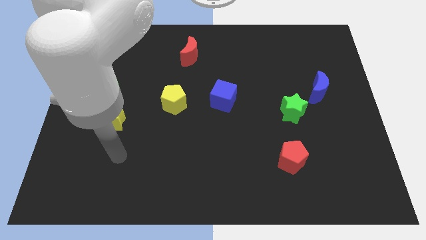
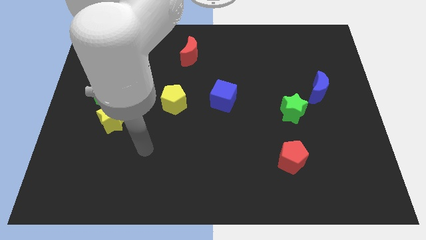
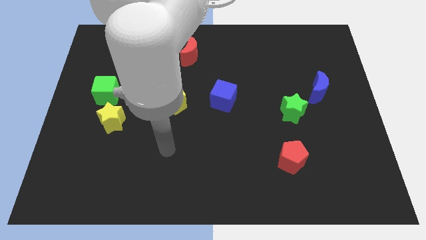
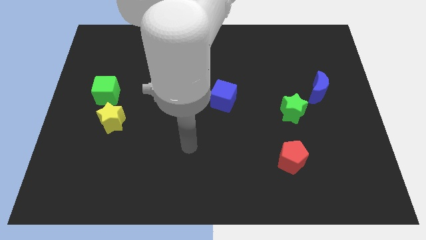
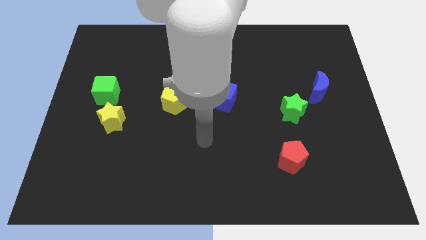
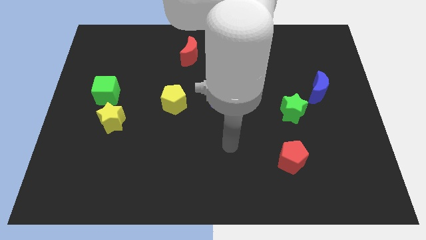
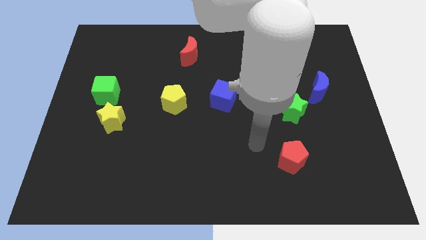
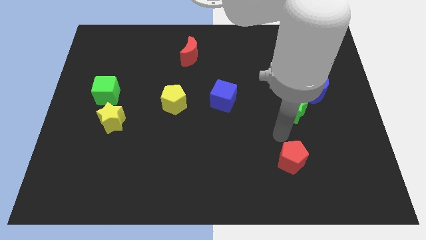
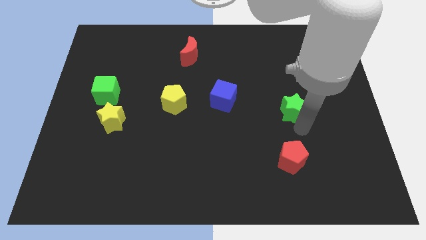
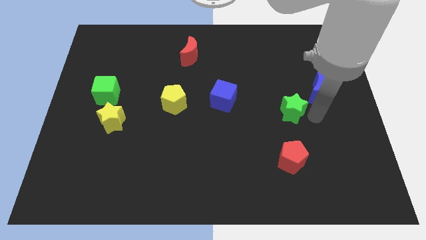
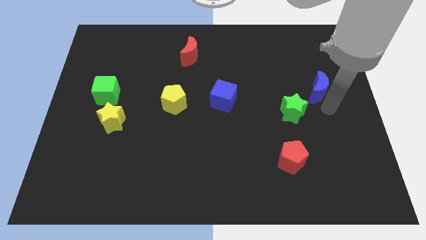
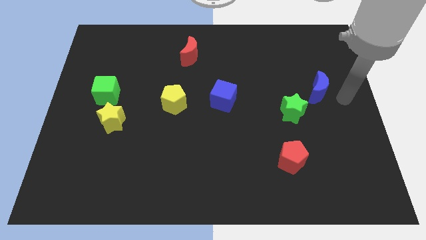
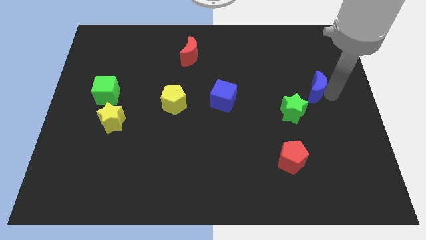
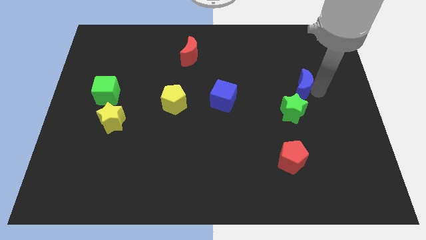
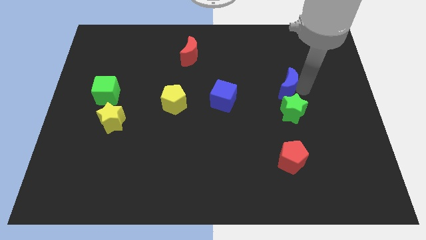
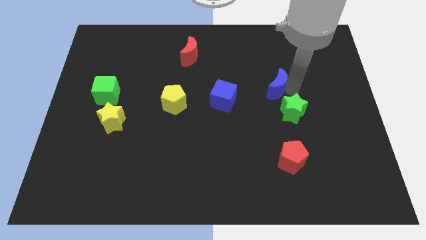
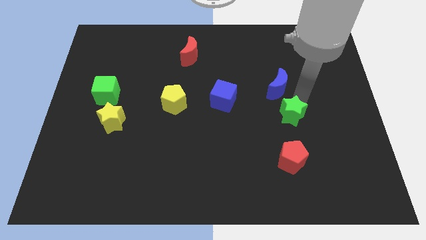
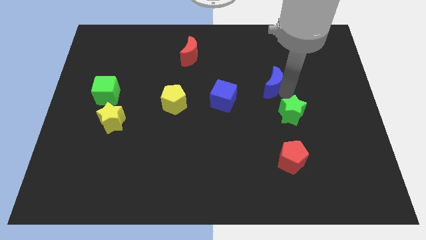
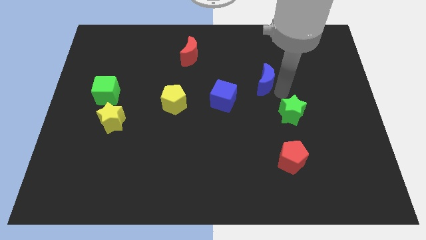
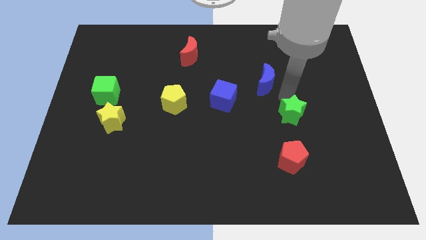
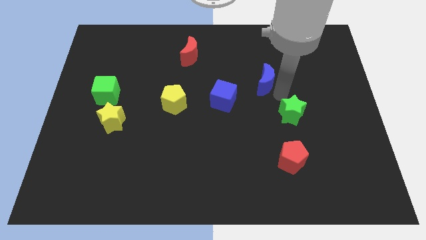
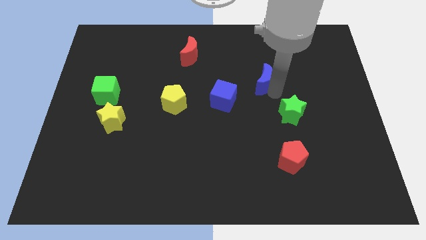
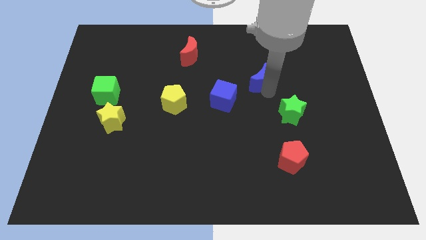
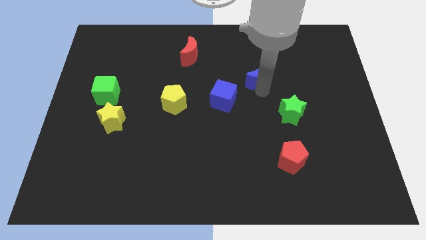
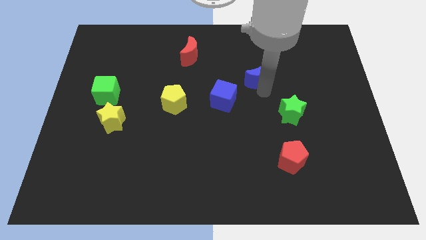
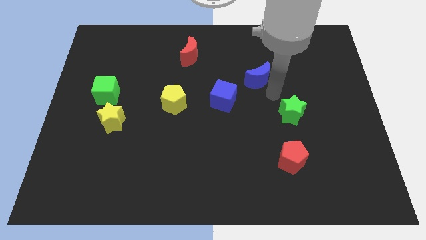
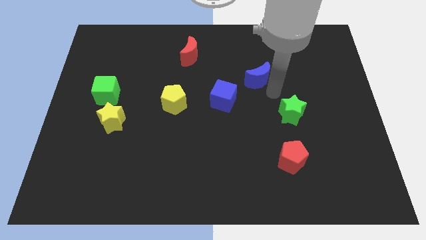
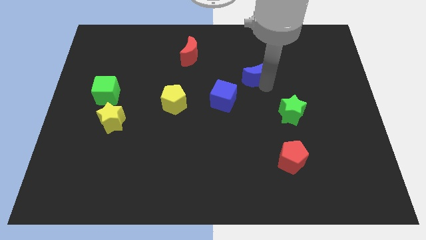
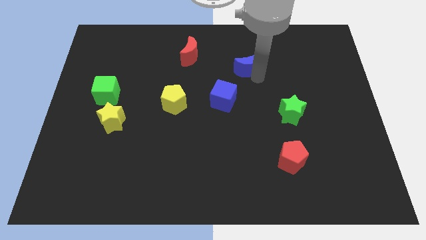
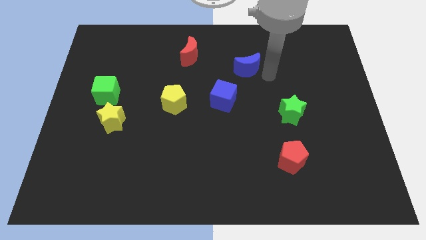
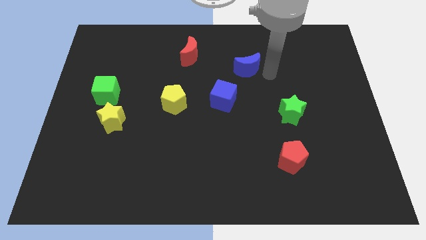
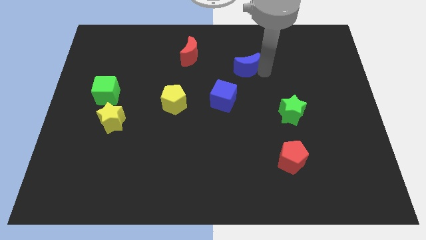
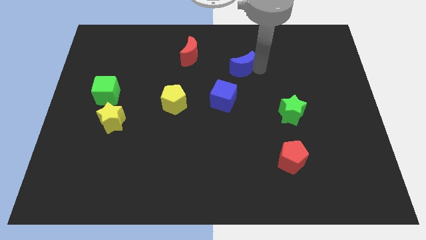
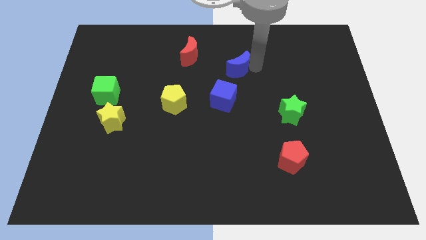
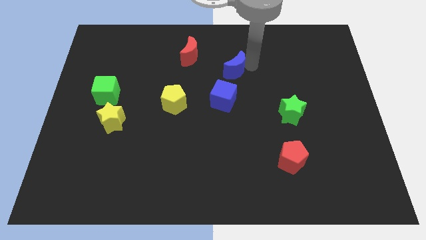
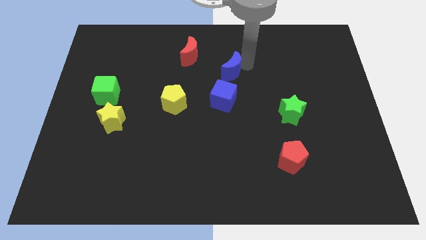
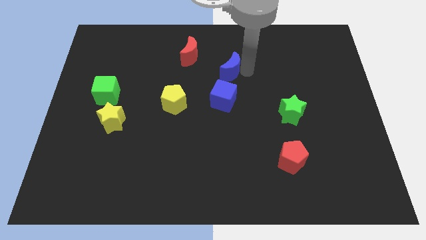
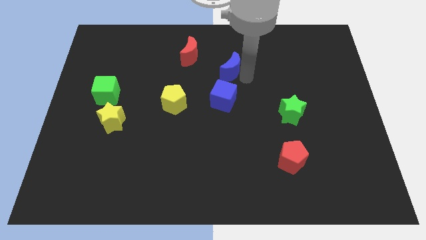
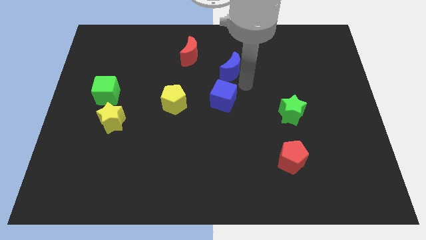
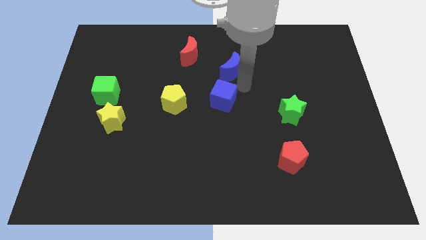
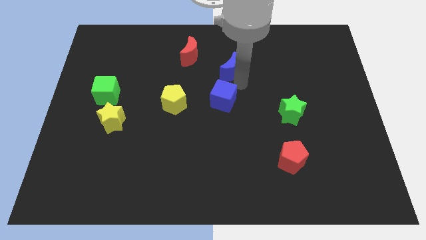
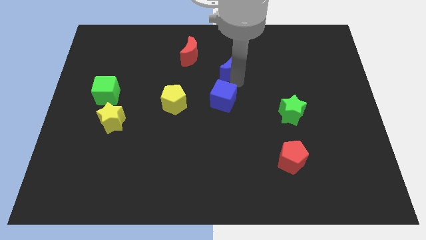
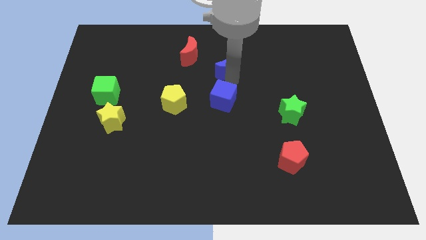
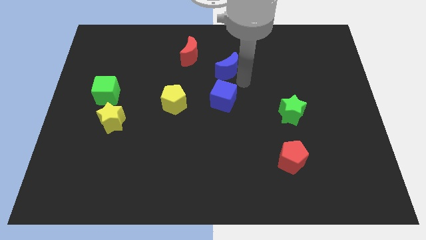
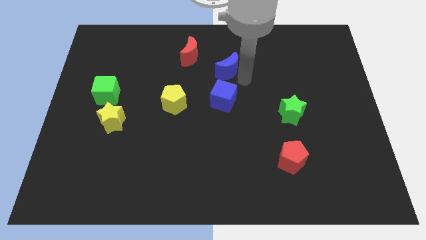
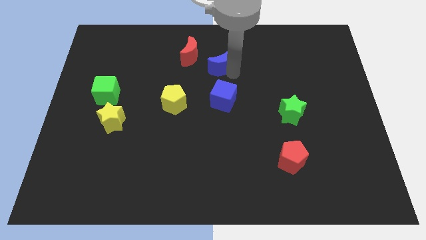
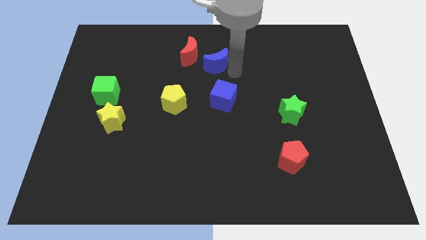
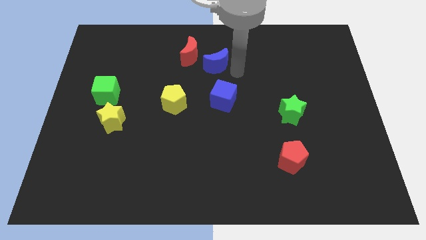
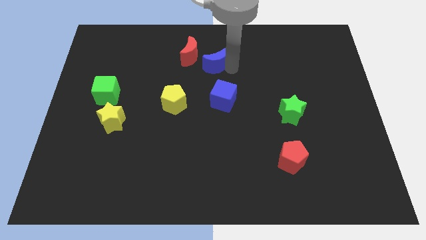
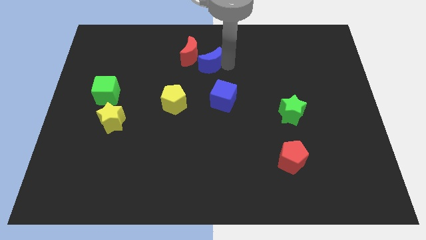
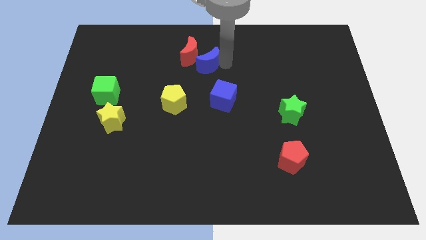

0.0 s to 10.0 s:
put the blue moon close to the red moon

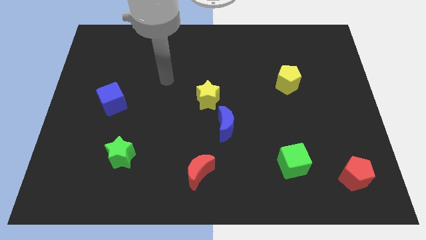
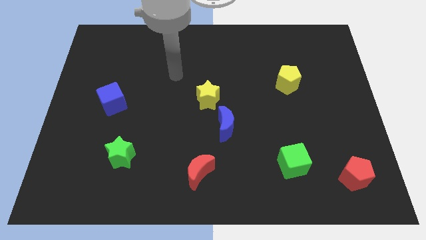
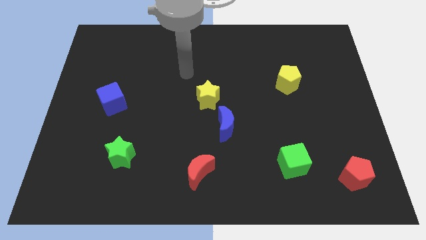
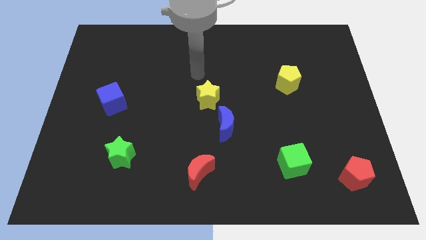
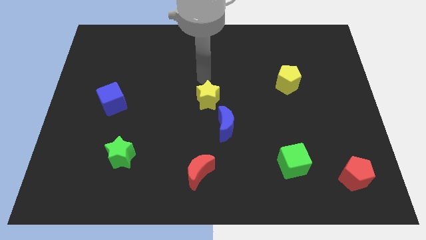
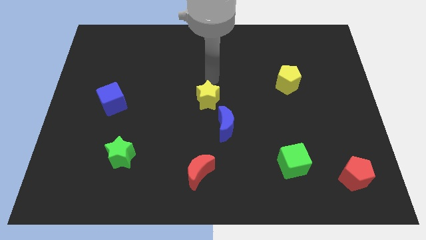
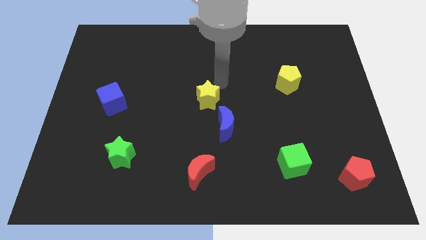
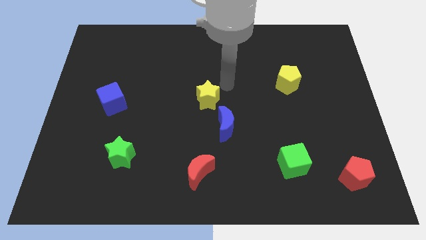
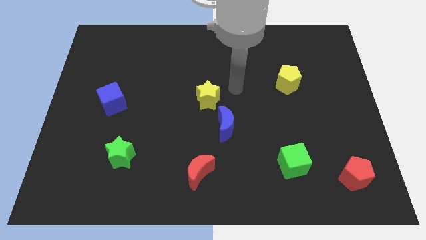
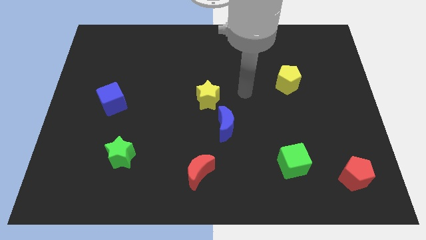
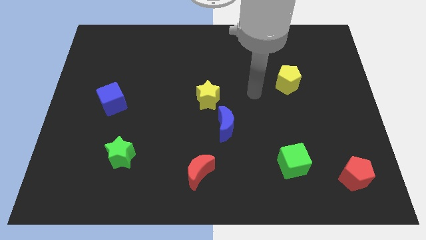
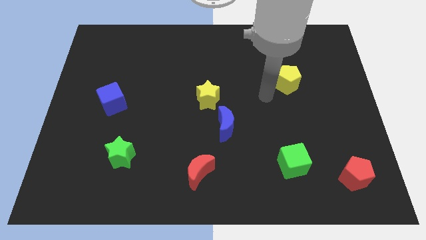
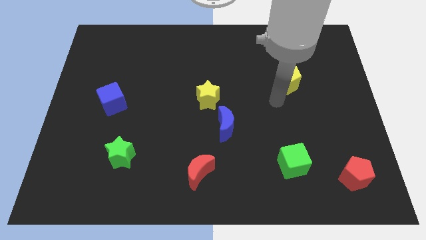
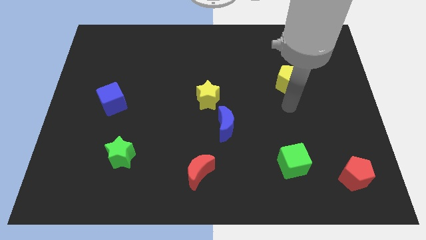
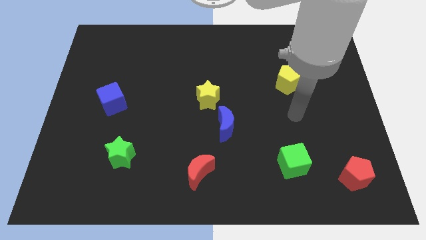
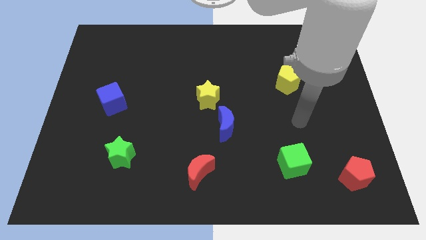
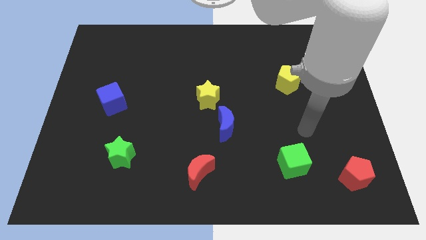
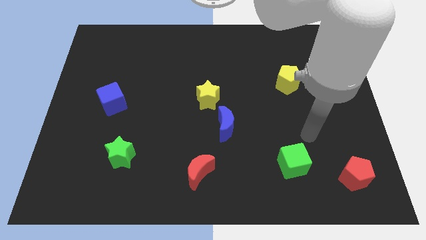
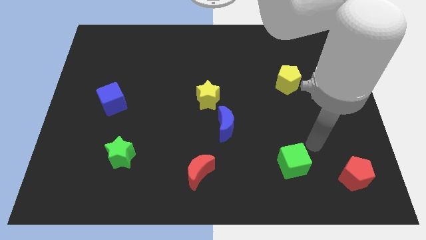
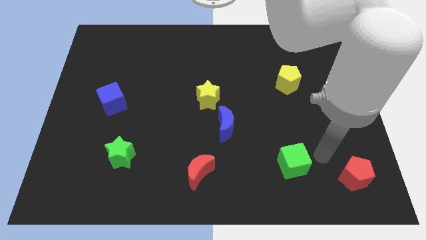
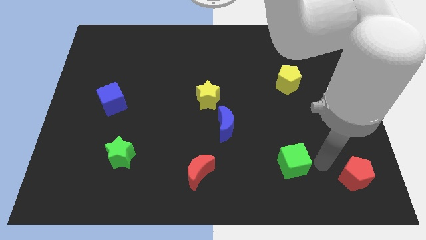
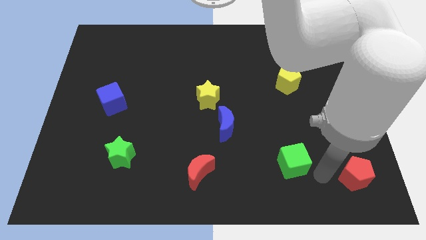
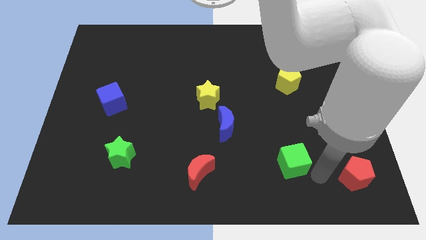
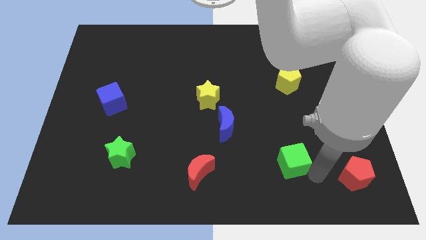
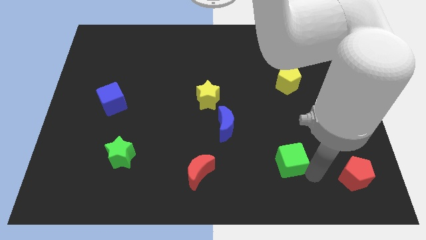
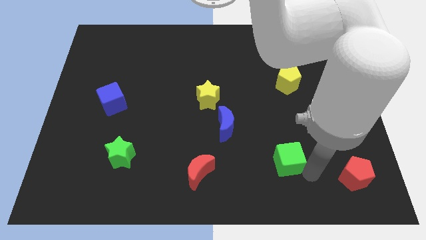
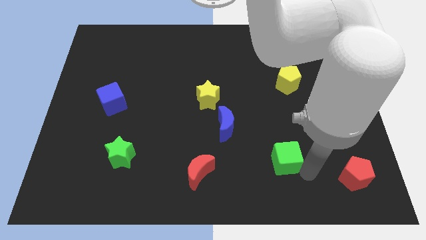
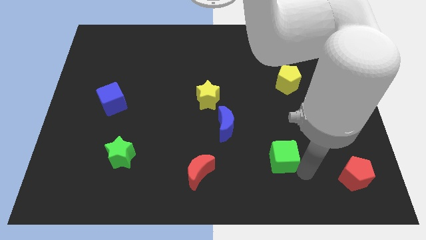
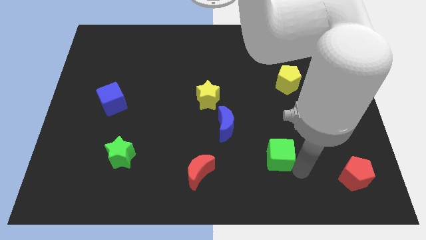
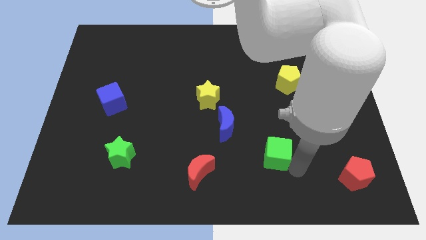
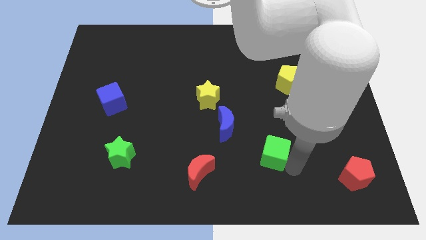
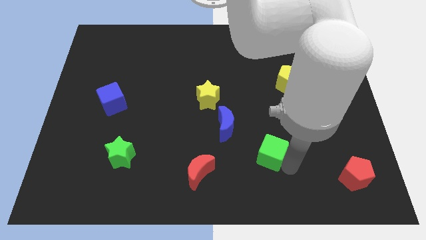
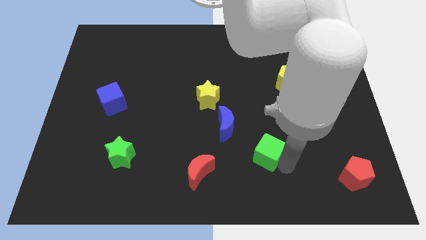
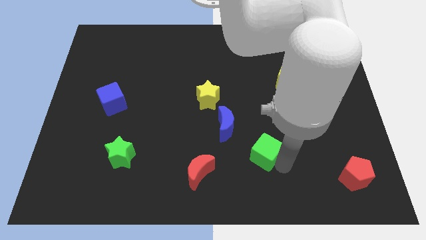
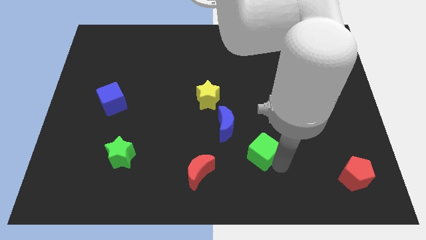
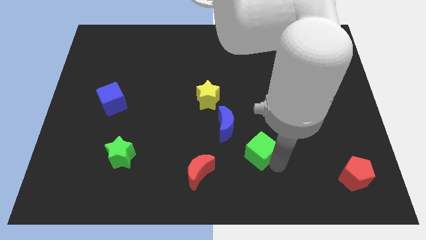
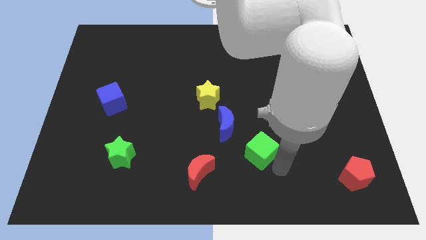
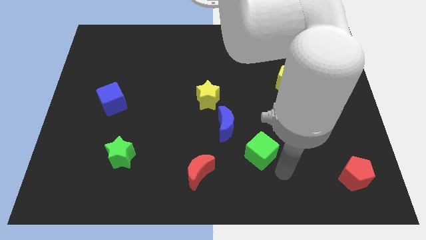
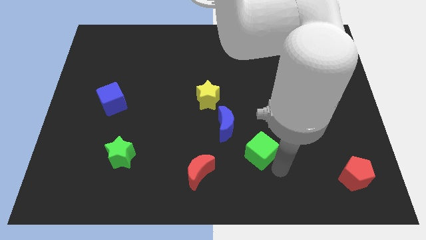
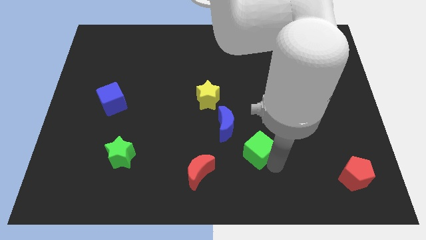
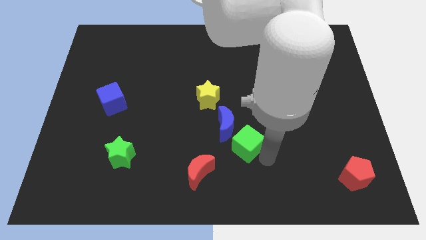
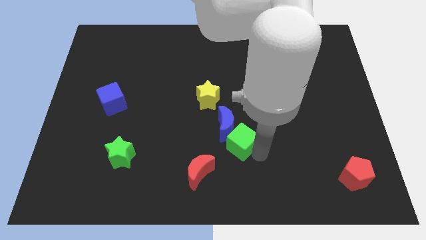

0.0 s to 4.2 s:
slide the green cube to the blue moon
